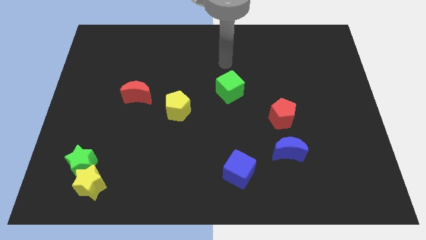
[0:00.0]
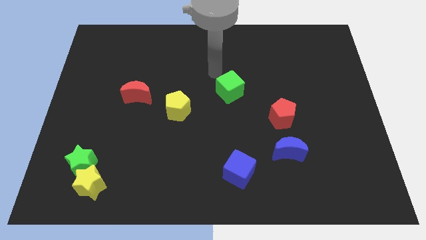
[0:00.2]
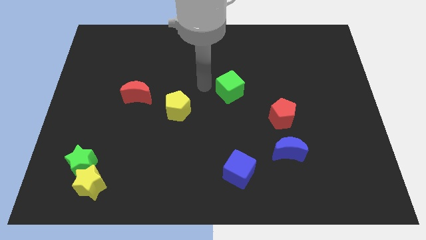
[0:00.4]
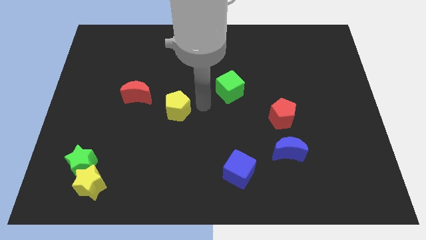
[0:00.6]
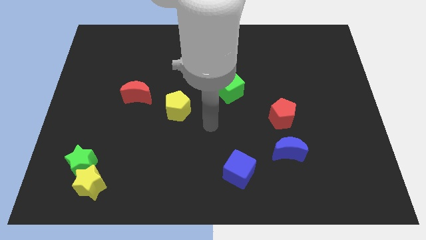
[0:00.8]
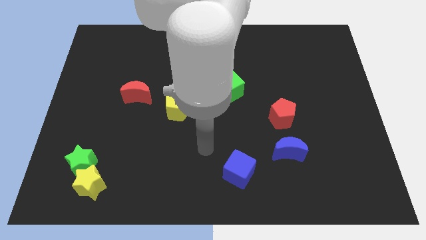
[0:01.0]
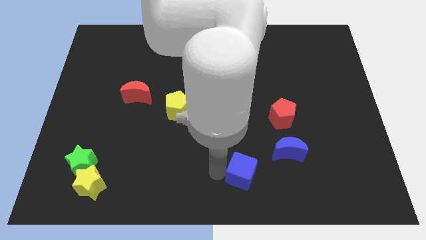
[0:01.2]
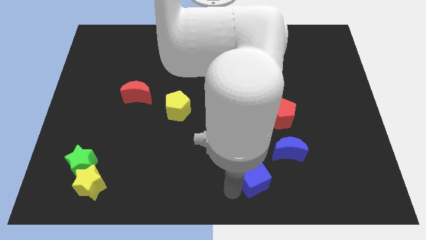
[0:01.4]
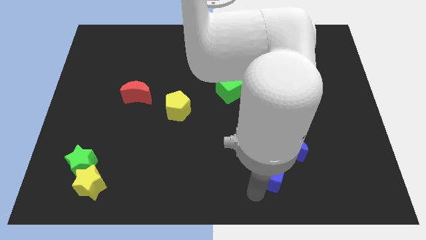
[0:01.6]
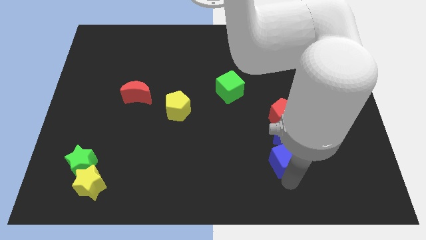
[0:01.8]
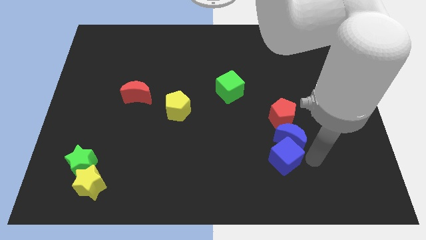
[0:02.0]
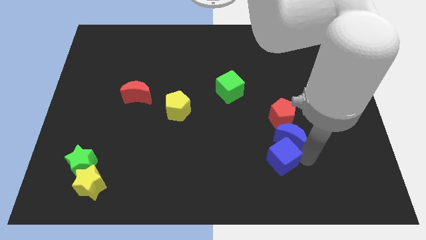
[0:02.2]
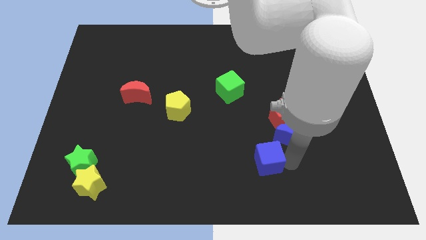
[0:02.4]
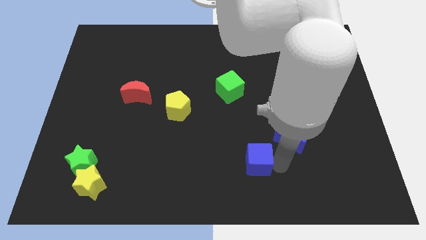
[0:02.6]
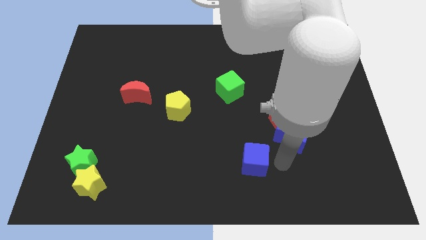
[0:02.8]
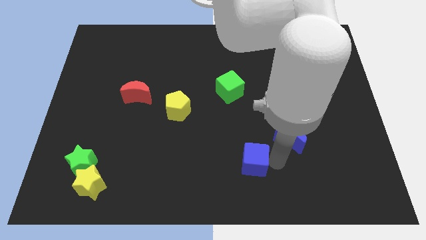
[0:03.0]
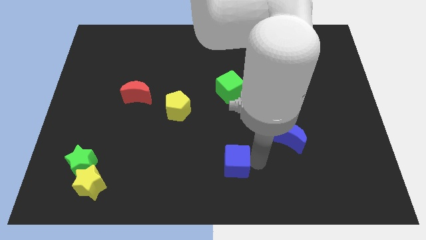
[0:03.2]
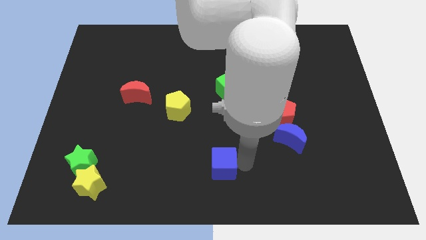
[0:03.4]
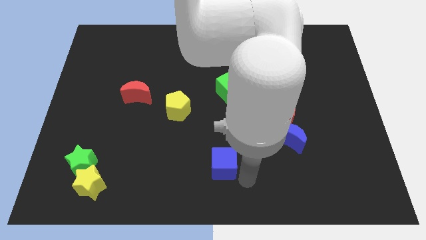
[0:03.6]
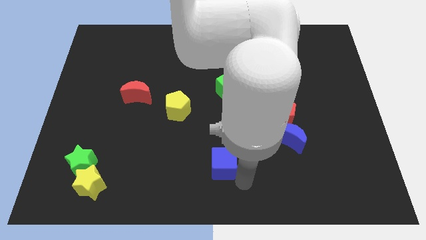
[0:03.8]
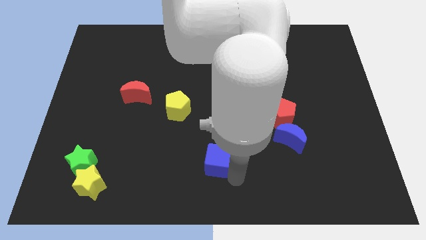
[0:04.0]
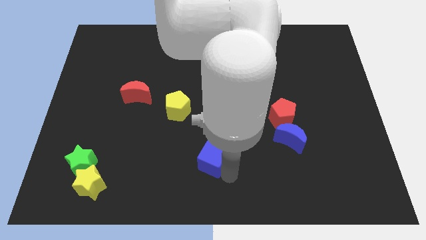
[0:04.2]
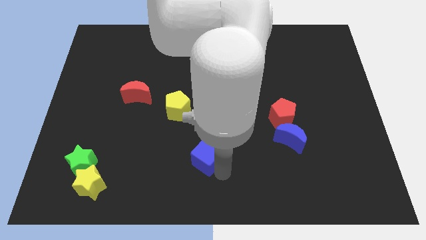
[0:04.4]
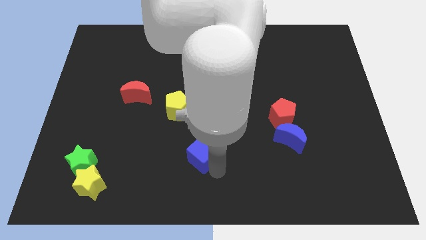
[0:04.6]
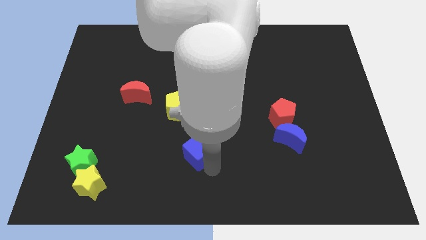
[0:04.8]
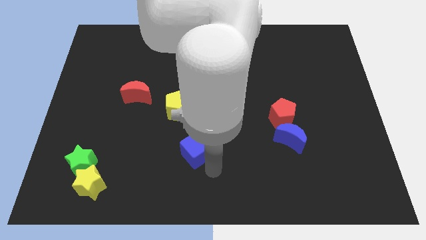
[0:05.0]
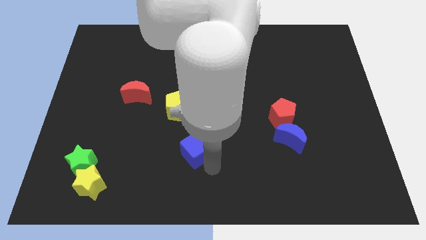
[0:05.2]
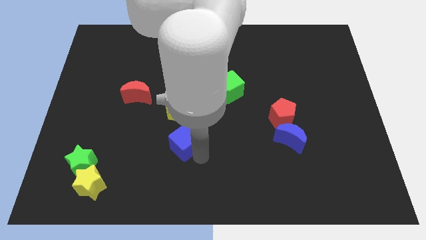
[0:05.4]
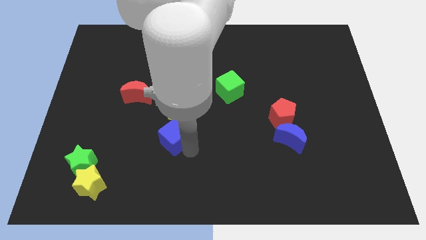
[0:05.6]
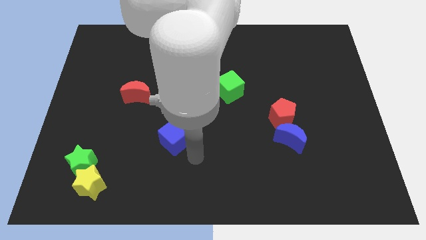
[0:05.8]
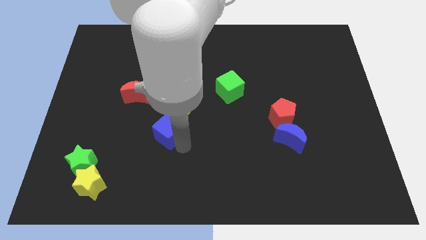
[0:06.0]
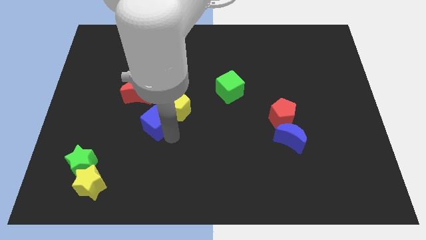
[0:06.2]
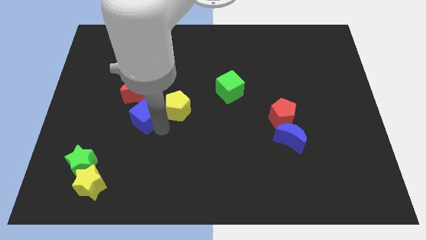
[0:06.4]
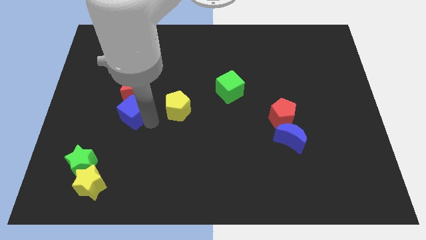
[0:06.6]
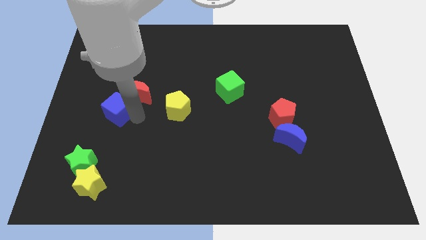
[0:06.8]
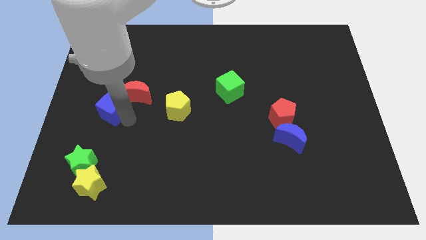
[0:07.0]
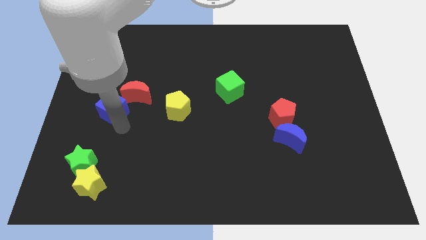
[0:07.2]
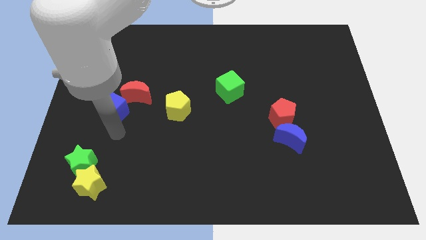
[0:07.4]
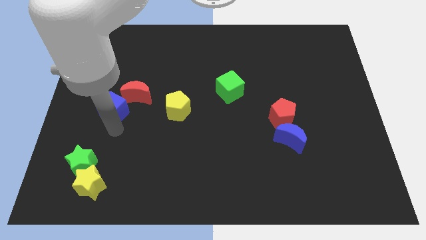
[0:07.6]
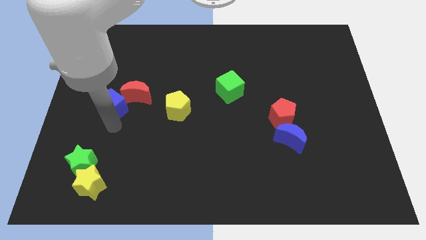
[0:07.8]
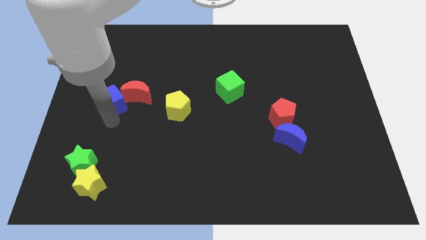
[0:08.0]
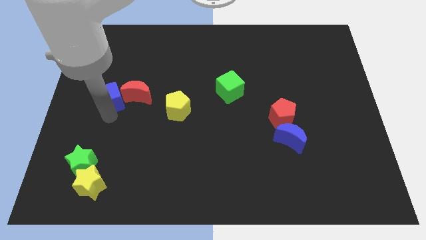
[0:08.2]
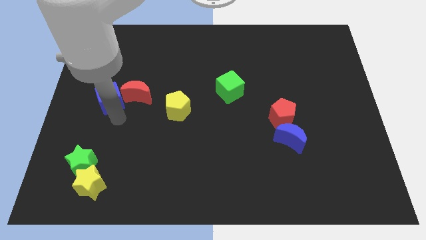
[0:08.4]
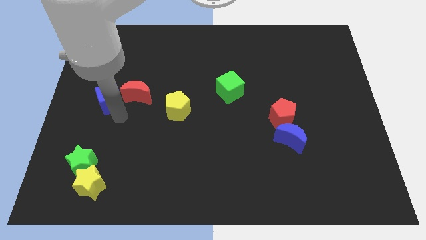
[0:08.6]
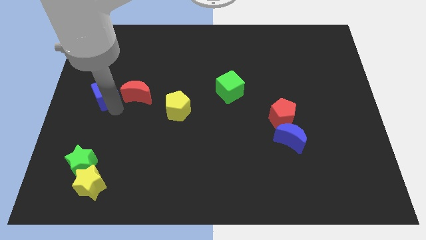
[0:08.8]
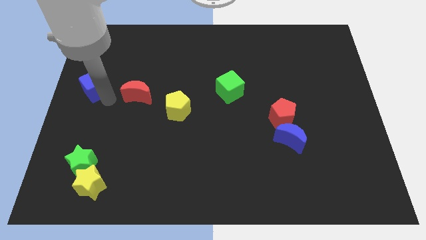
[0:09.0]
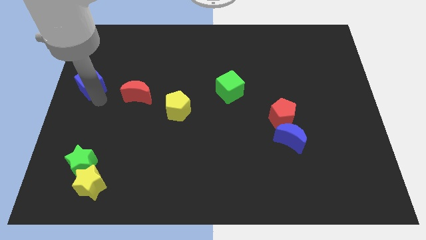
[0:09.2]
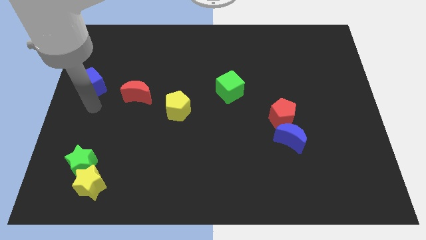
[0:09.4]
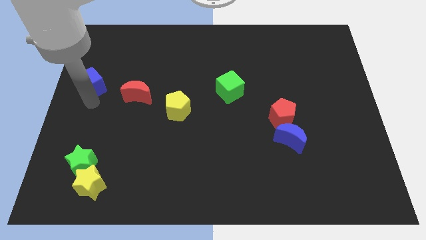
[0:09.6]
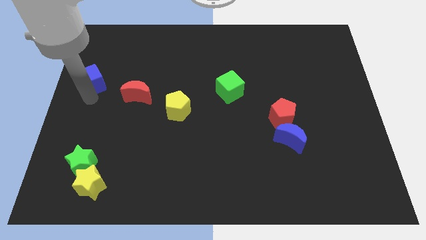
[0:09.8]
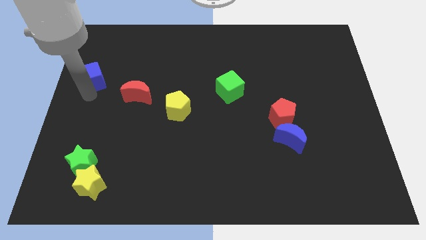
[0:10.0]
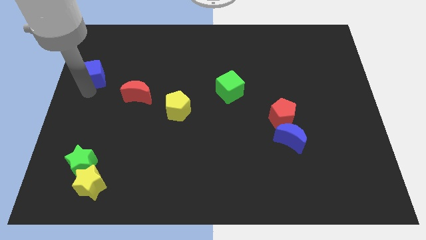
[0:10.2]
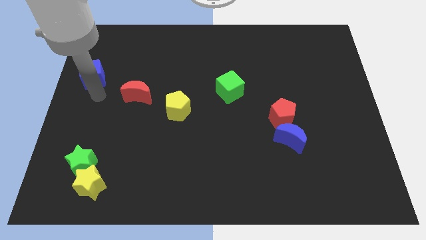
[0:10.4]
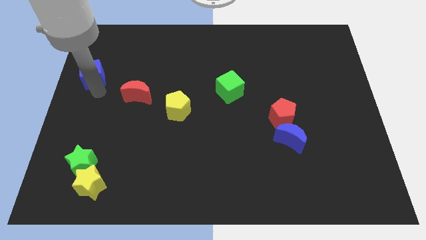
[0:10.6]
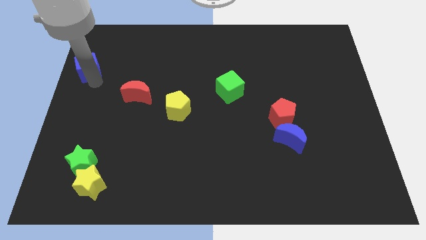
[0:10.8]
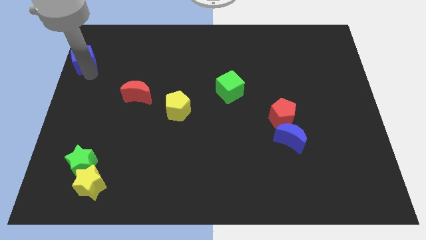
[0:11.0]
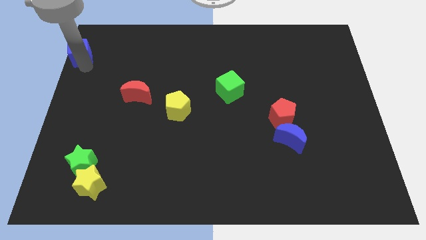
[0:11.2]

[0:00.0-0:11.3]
put the blue cube to the top left of the board

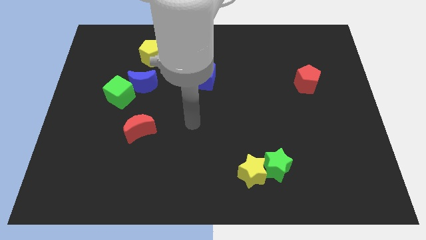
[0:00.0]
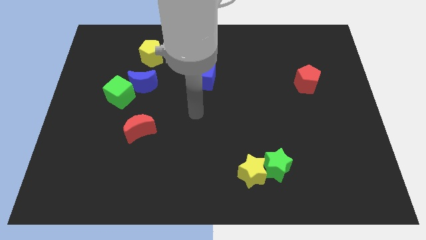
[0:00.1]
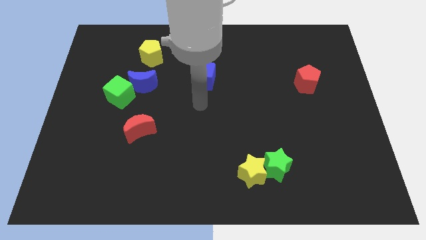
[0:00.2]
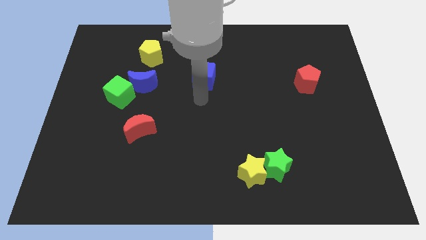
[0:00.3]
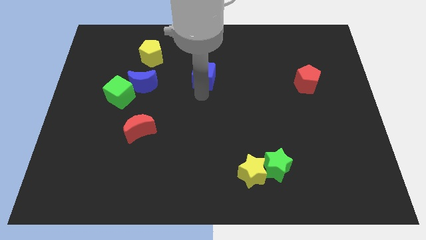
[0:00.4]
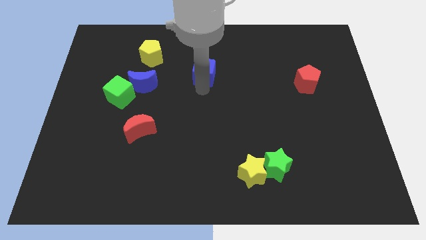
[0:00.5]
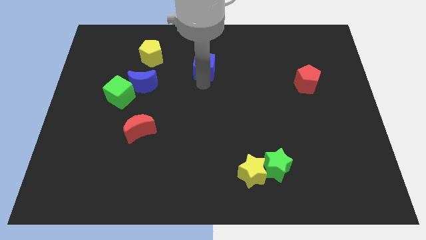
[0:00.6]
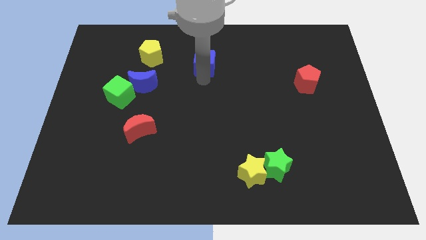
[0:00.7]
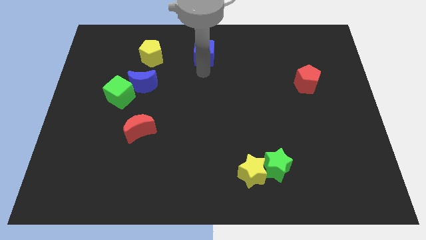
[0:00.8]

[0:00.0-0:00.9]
move the blue cube to the top

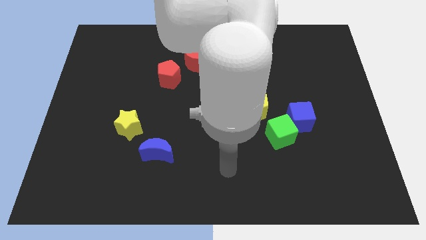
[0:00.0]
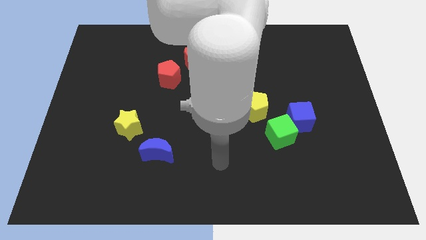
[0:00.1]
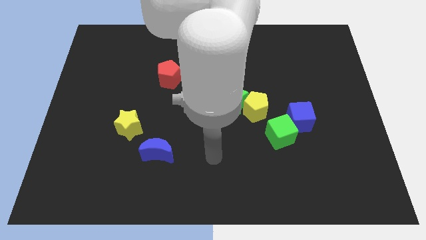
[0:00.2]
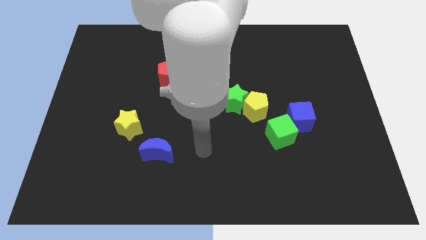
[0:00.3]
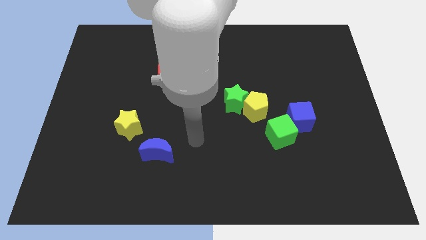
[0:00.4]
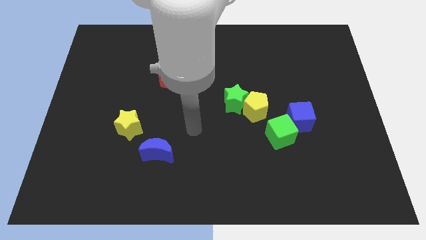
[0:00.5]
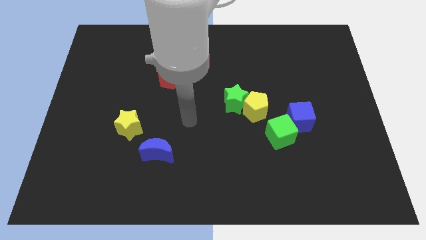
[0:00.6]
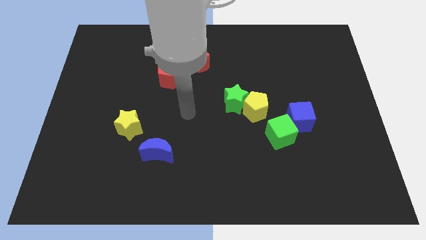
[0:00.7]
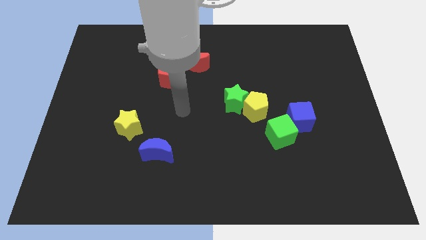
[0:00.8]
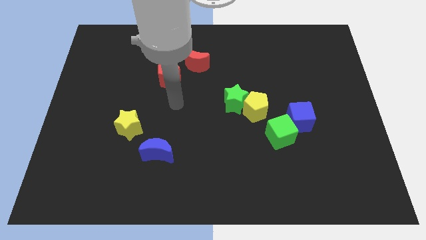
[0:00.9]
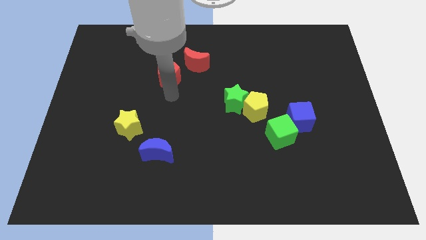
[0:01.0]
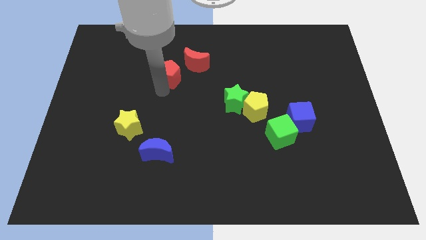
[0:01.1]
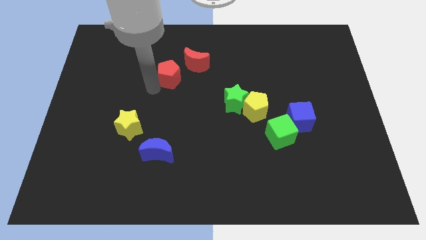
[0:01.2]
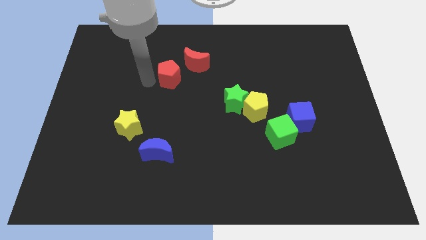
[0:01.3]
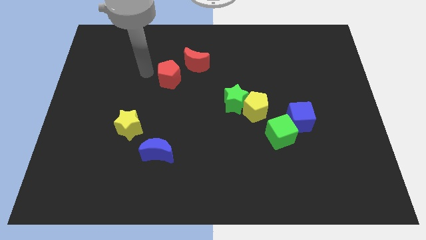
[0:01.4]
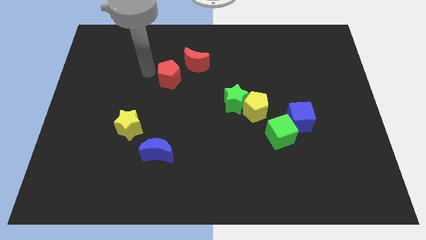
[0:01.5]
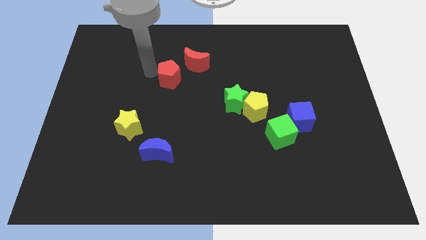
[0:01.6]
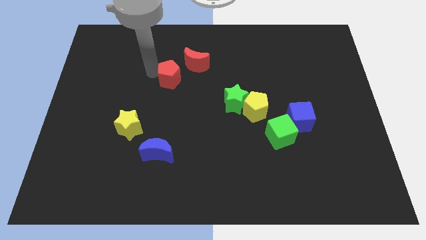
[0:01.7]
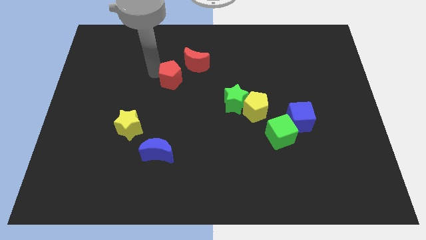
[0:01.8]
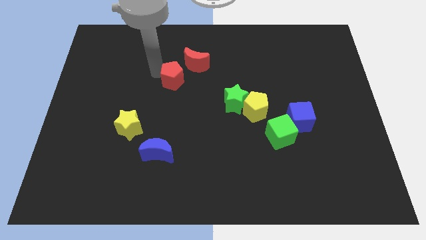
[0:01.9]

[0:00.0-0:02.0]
push the red pentagon to the center
